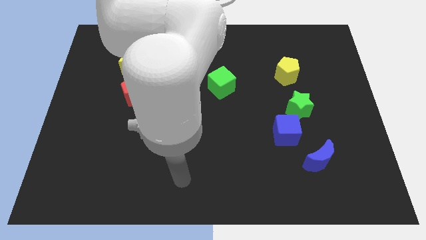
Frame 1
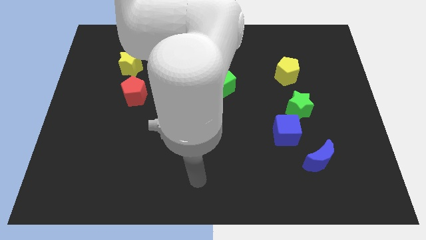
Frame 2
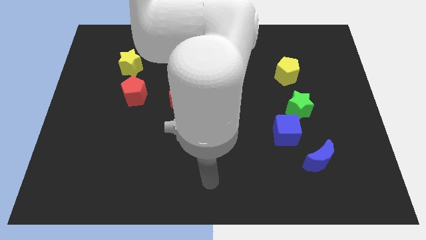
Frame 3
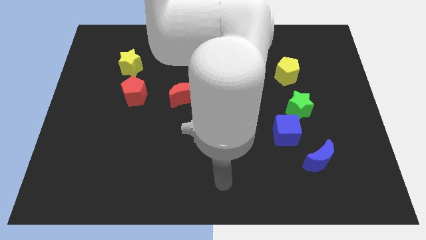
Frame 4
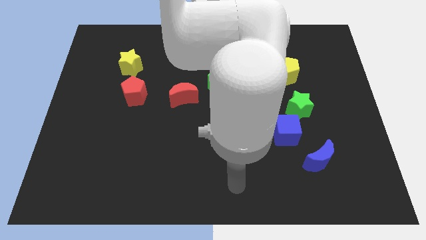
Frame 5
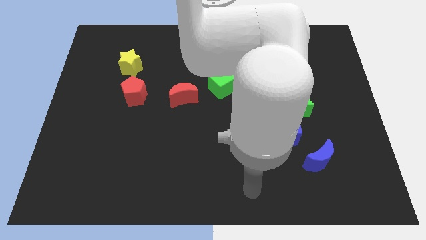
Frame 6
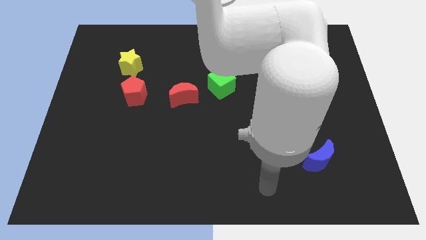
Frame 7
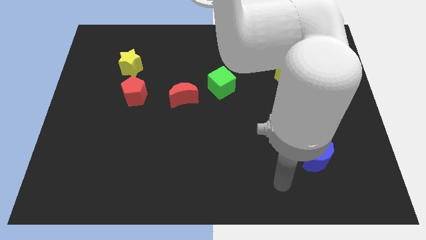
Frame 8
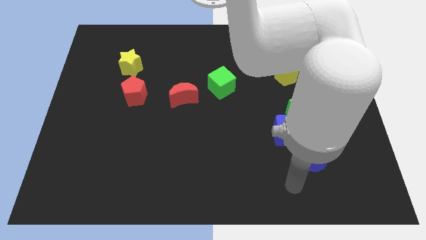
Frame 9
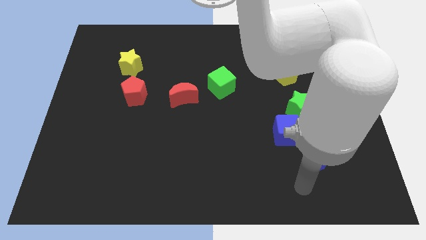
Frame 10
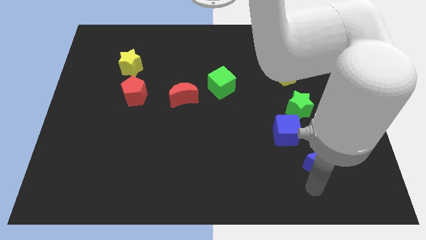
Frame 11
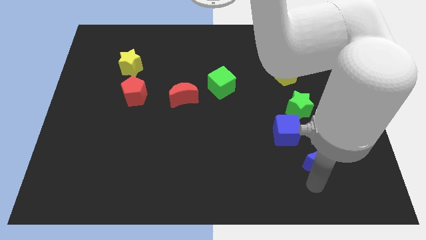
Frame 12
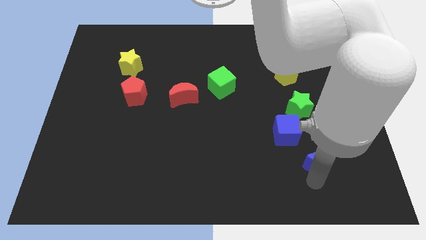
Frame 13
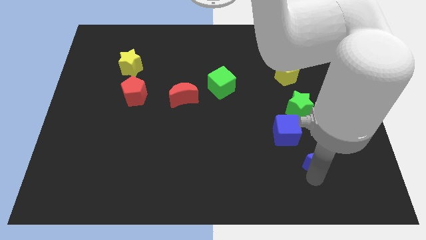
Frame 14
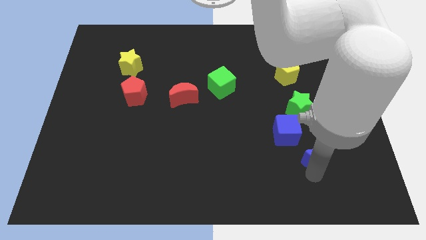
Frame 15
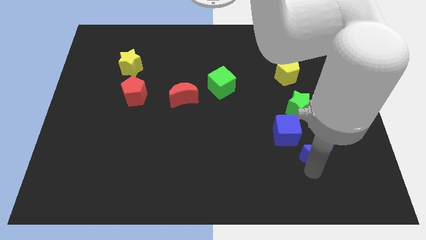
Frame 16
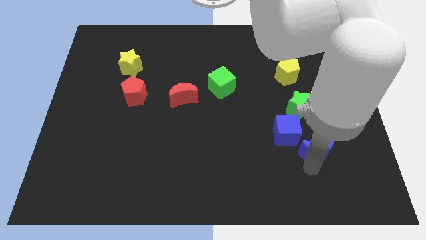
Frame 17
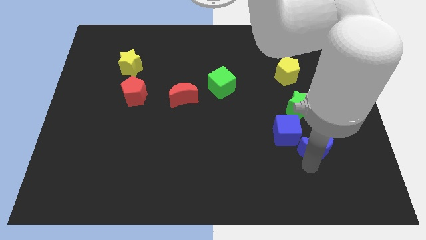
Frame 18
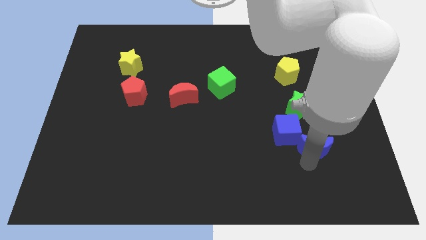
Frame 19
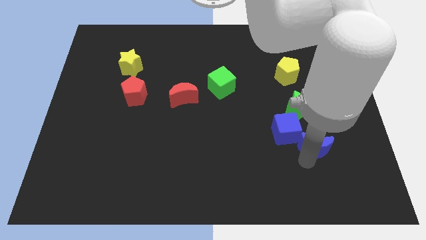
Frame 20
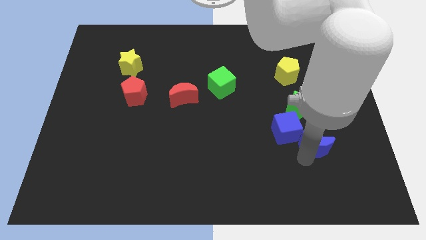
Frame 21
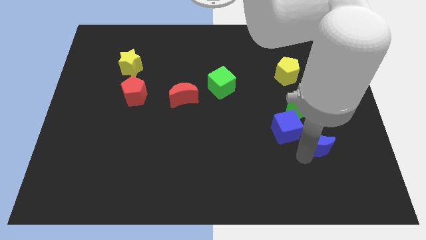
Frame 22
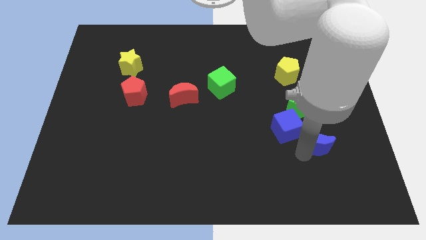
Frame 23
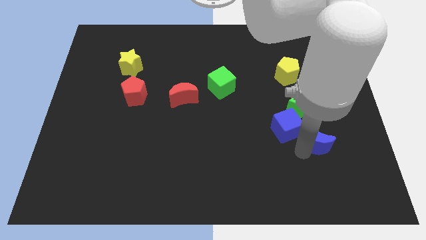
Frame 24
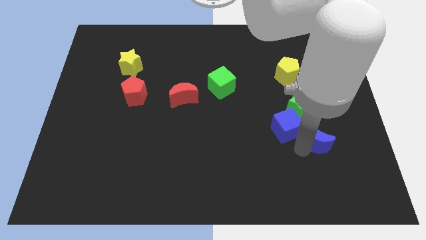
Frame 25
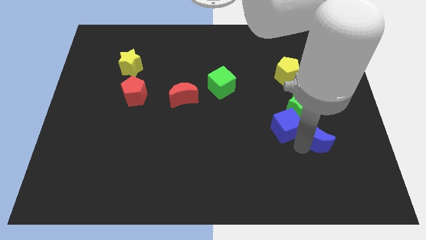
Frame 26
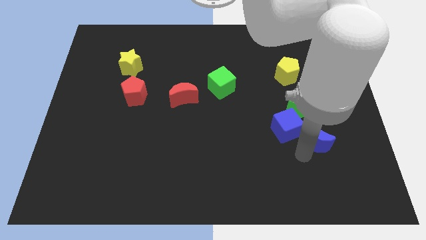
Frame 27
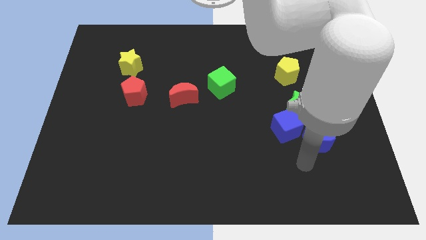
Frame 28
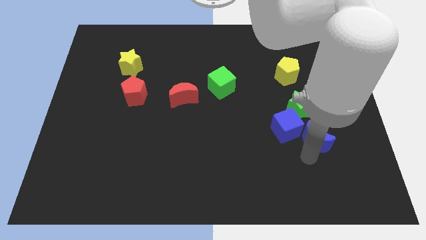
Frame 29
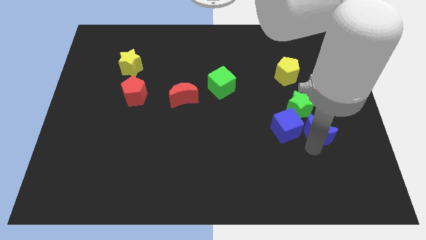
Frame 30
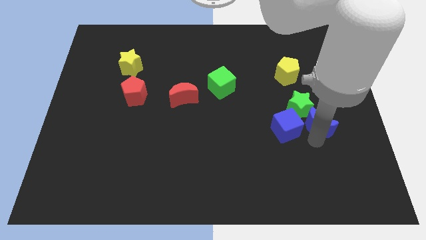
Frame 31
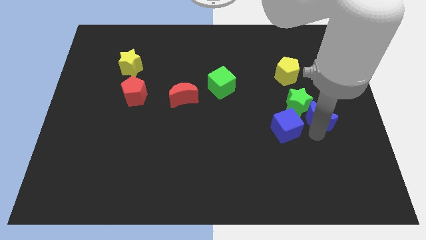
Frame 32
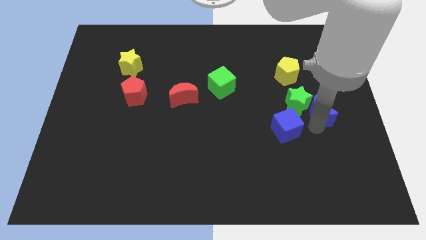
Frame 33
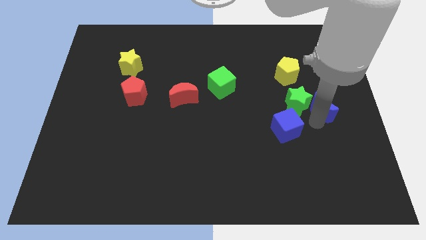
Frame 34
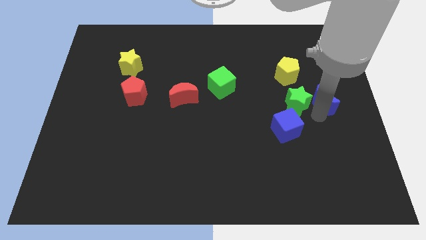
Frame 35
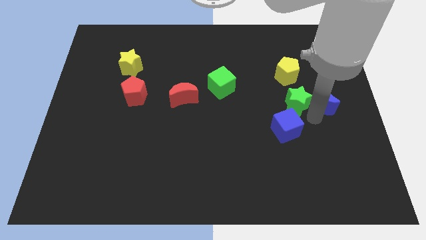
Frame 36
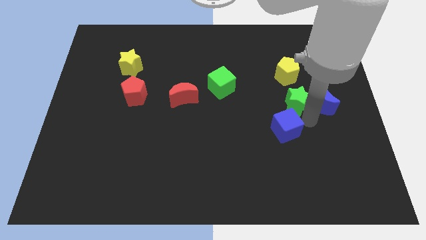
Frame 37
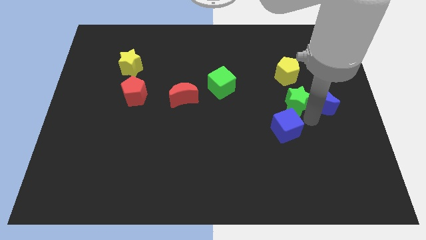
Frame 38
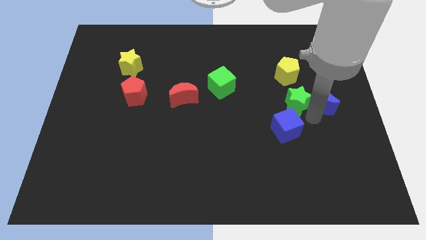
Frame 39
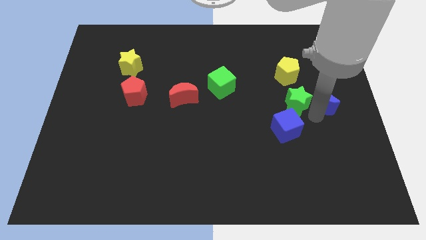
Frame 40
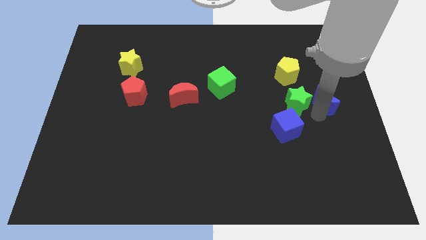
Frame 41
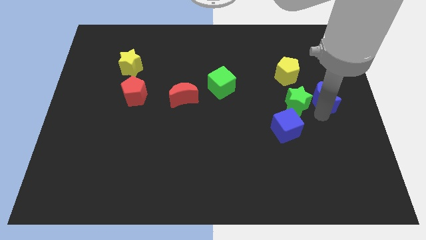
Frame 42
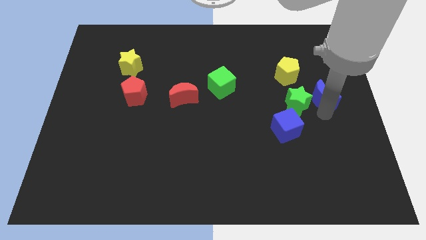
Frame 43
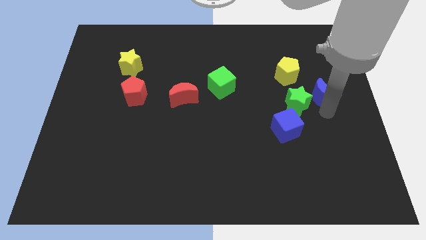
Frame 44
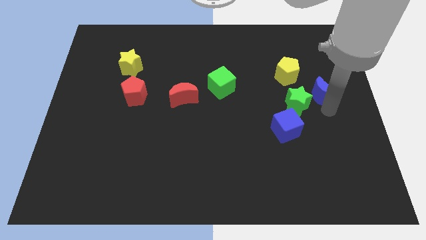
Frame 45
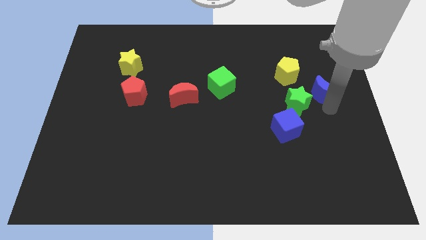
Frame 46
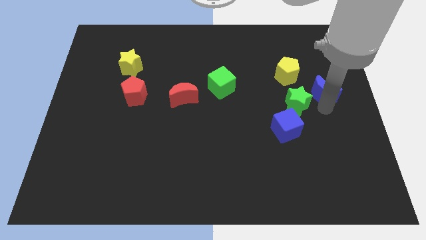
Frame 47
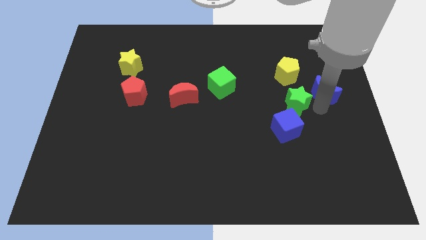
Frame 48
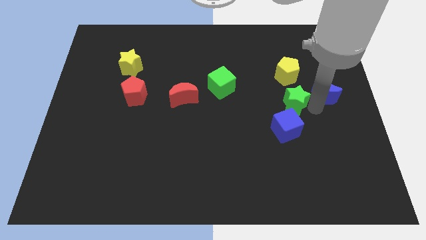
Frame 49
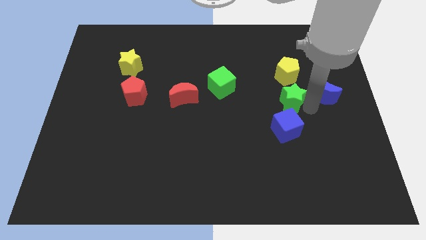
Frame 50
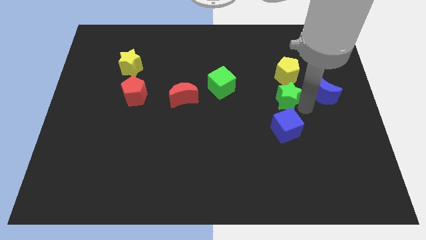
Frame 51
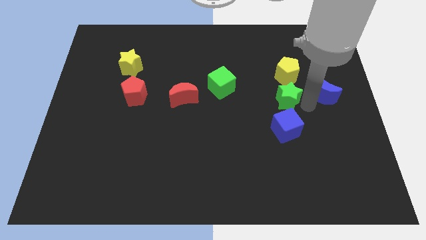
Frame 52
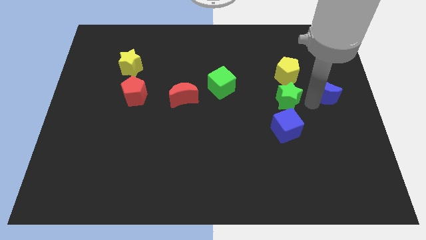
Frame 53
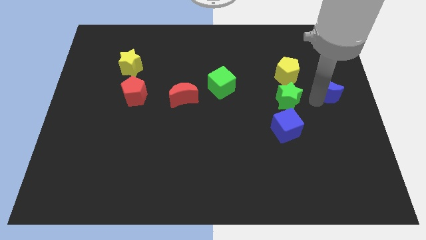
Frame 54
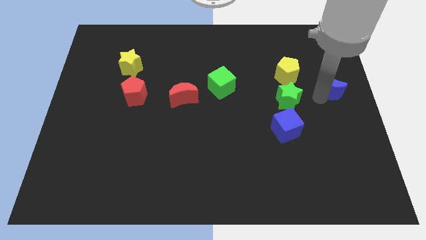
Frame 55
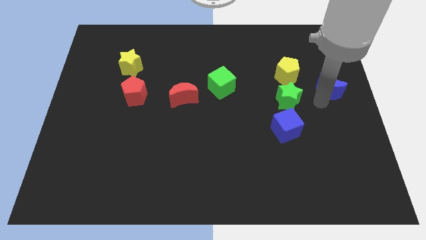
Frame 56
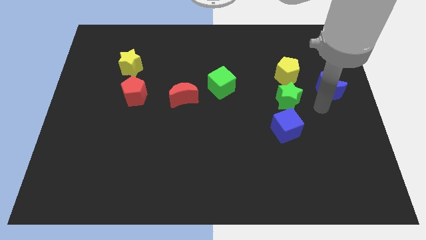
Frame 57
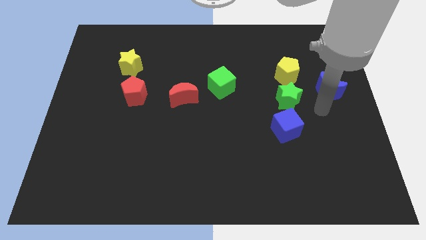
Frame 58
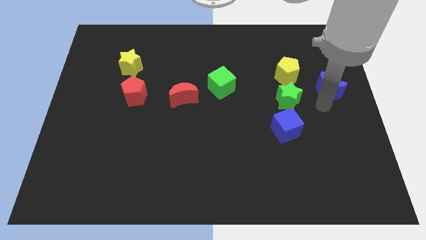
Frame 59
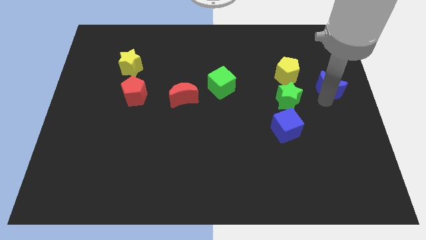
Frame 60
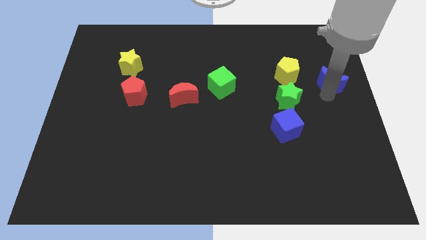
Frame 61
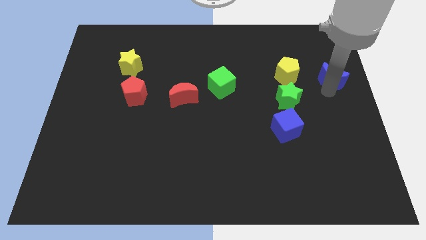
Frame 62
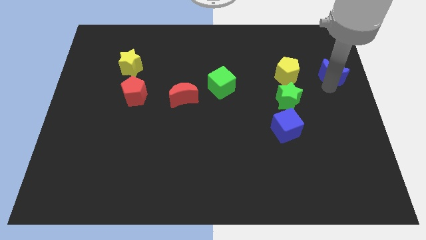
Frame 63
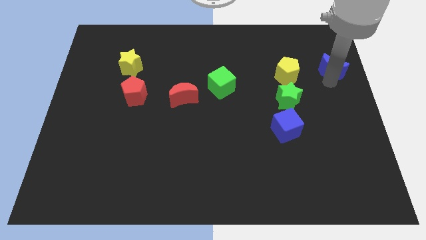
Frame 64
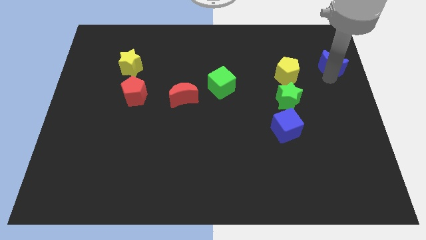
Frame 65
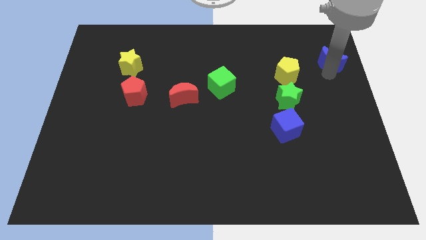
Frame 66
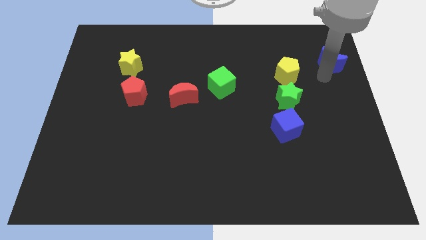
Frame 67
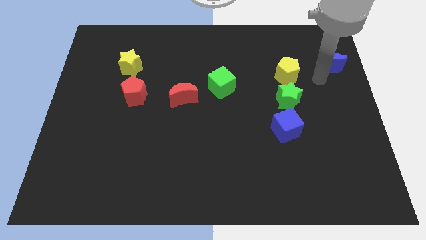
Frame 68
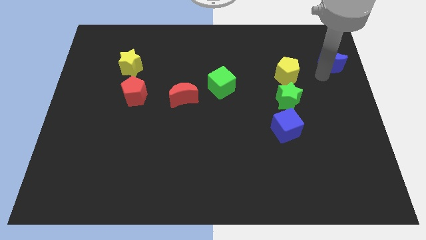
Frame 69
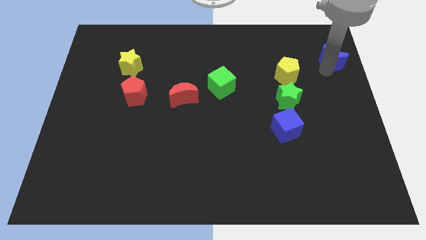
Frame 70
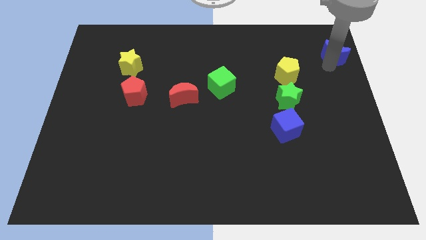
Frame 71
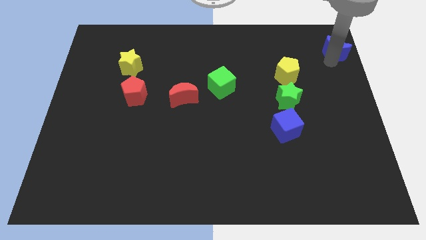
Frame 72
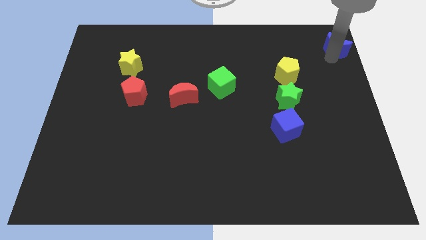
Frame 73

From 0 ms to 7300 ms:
put the blue moon to the top right of the board
